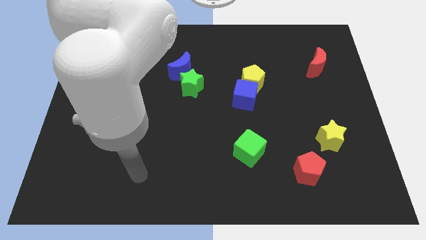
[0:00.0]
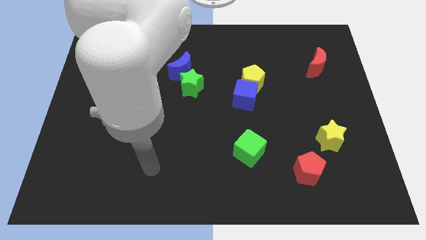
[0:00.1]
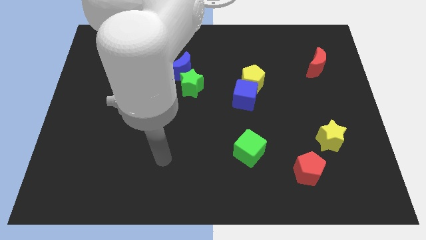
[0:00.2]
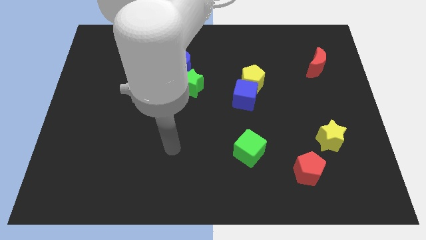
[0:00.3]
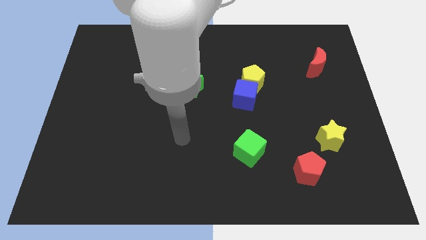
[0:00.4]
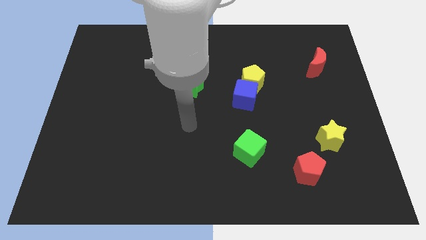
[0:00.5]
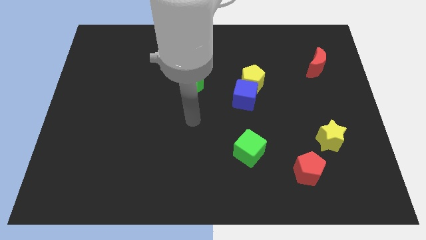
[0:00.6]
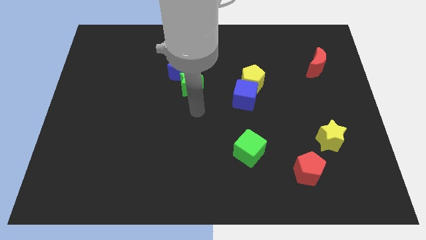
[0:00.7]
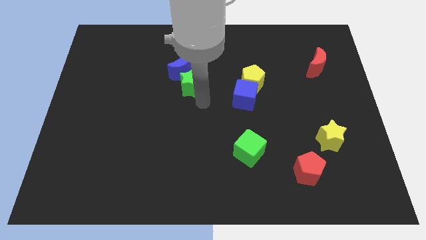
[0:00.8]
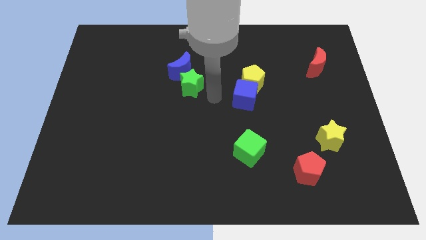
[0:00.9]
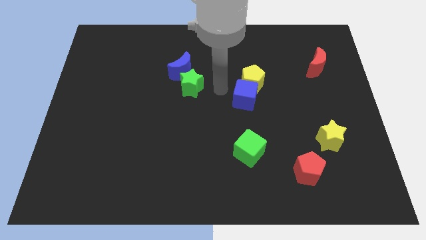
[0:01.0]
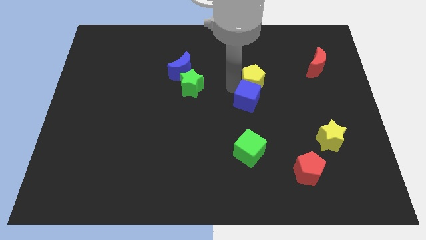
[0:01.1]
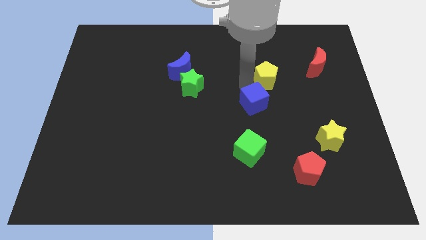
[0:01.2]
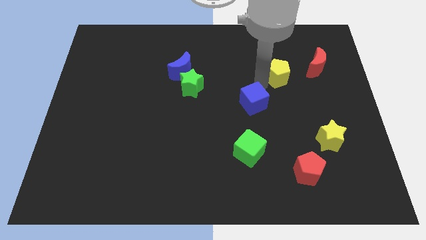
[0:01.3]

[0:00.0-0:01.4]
move the blue cube away from the yellow pentagon

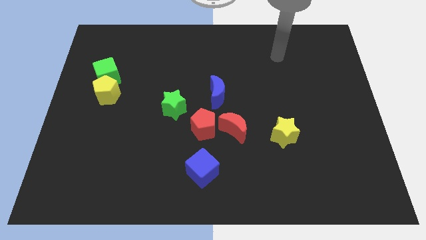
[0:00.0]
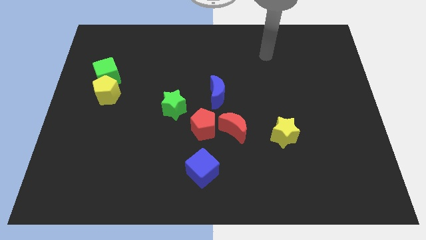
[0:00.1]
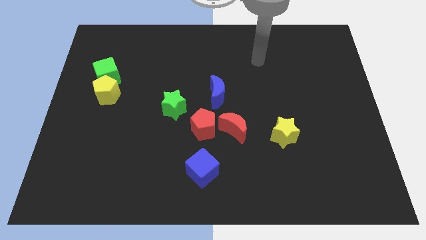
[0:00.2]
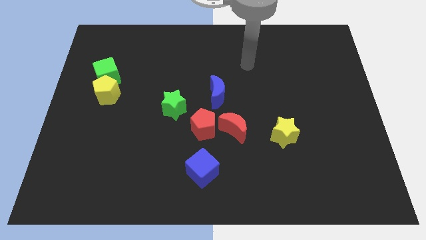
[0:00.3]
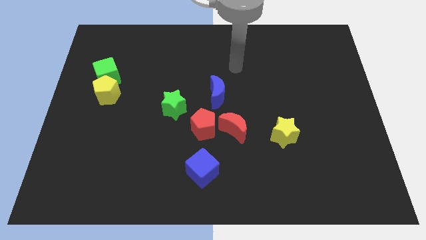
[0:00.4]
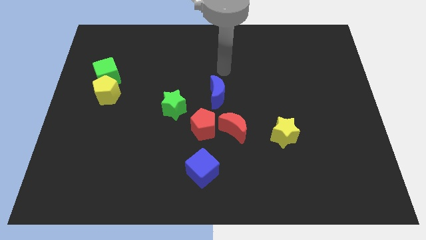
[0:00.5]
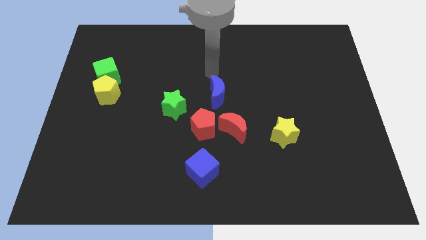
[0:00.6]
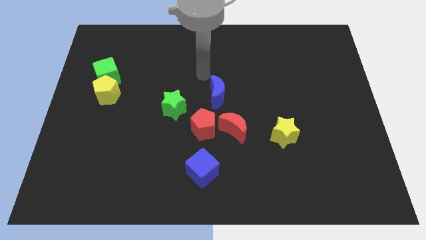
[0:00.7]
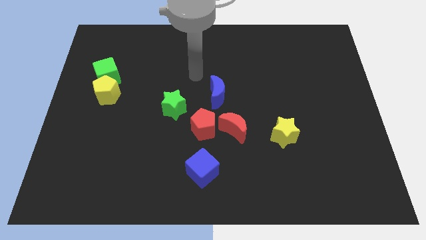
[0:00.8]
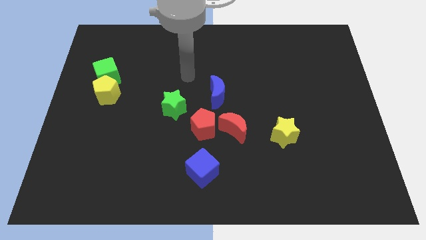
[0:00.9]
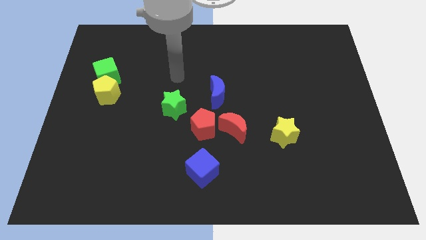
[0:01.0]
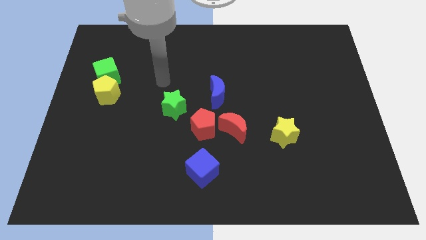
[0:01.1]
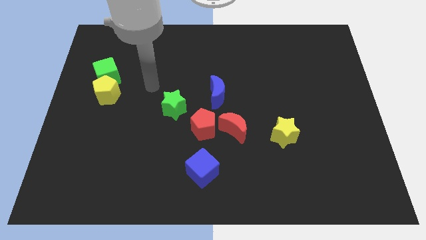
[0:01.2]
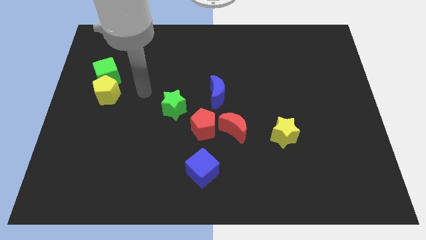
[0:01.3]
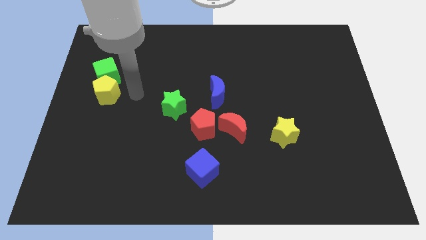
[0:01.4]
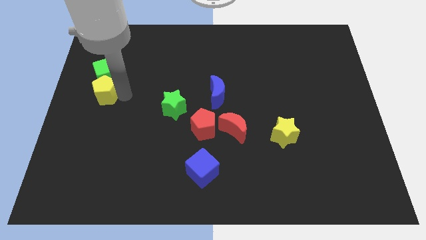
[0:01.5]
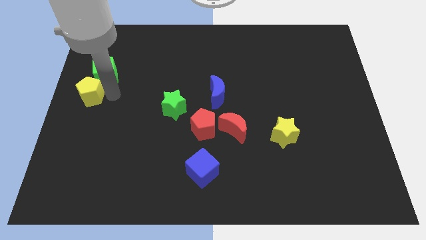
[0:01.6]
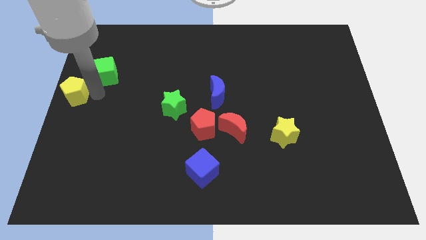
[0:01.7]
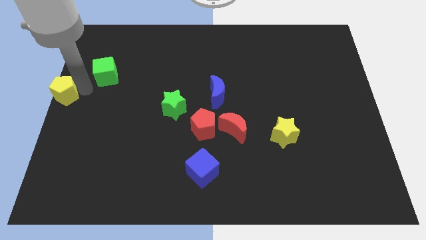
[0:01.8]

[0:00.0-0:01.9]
pull the green cube apart from the yellow pentagon

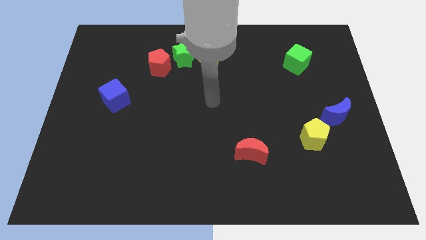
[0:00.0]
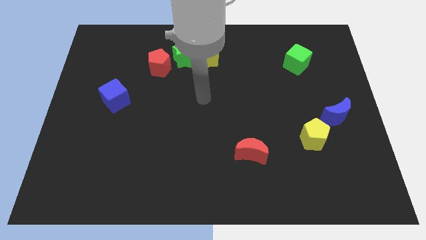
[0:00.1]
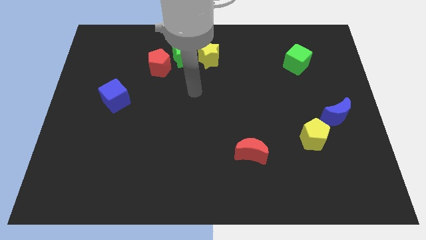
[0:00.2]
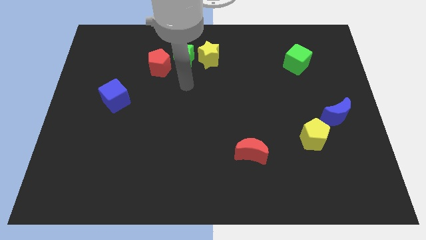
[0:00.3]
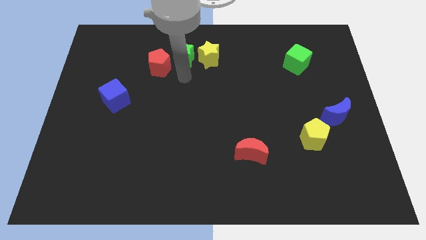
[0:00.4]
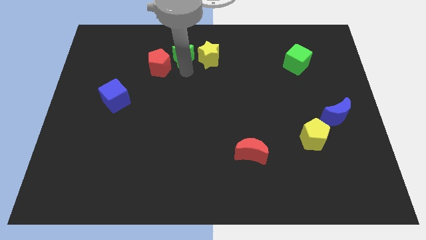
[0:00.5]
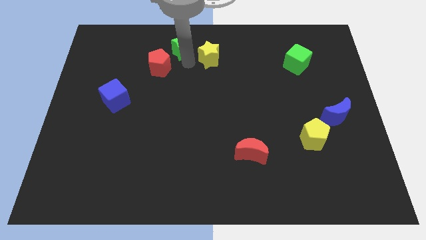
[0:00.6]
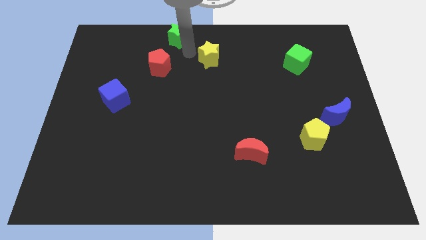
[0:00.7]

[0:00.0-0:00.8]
separate the yellow star from the green star

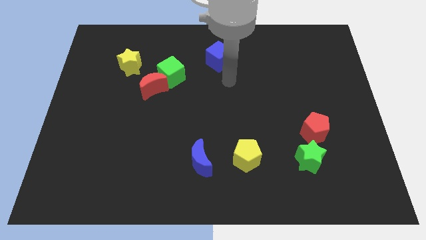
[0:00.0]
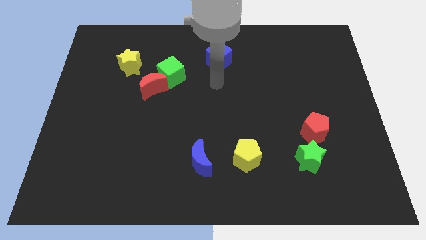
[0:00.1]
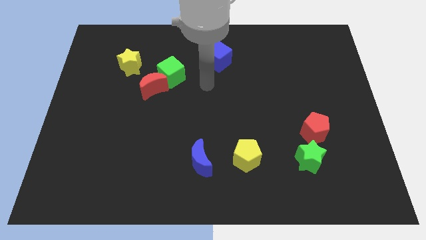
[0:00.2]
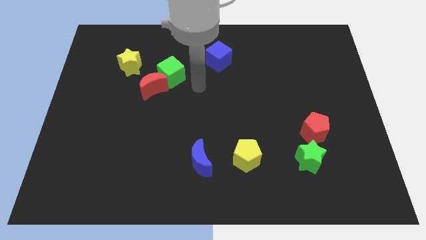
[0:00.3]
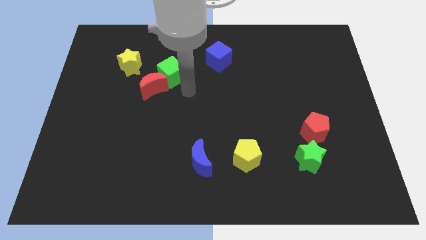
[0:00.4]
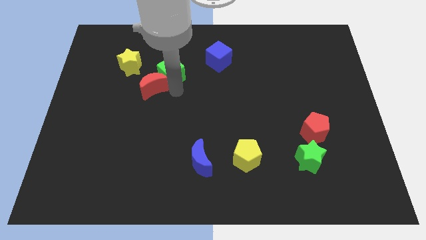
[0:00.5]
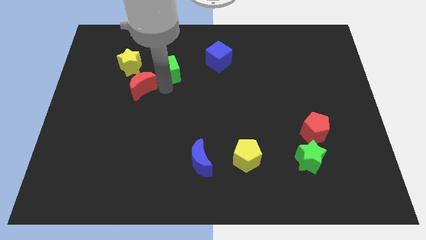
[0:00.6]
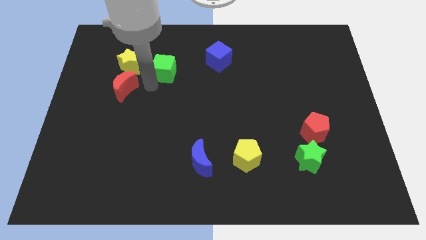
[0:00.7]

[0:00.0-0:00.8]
move the green cube away from the red moon

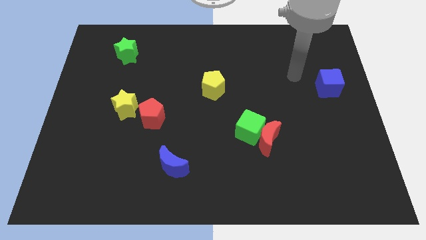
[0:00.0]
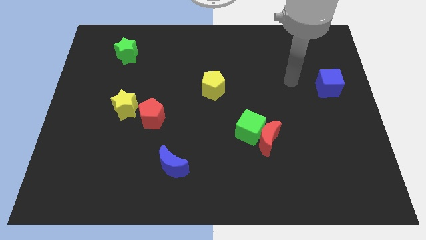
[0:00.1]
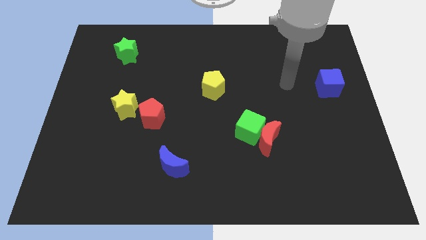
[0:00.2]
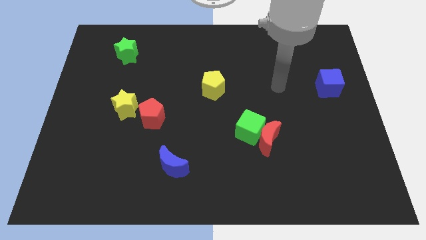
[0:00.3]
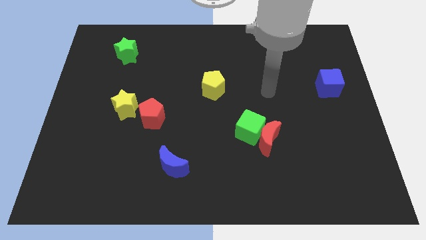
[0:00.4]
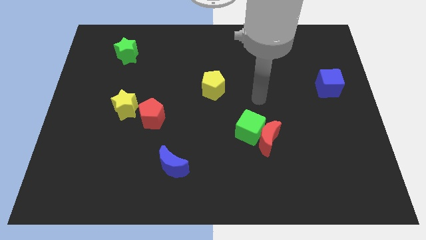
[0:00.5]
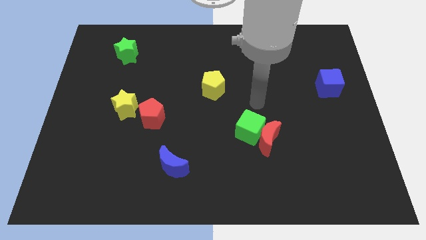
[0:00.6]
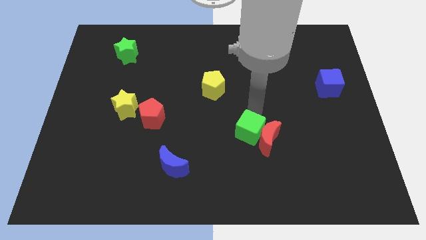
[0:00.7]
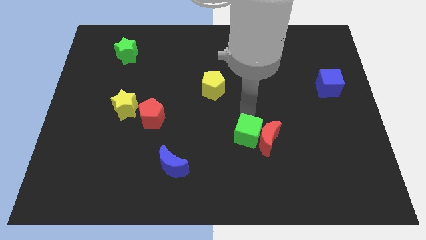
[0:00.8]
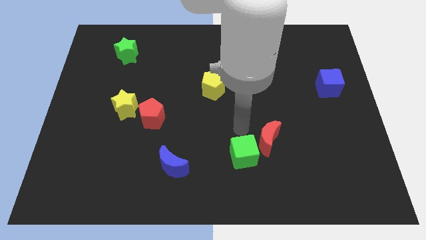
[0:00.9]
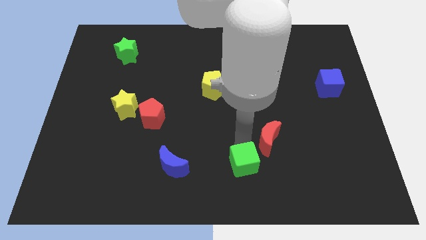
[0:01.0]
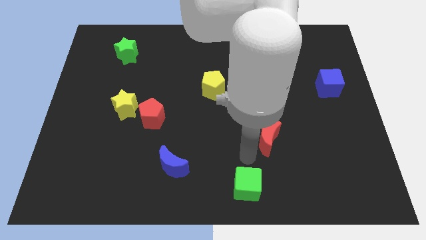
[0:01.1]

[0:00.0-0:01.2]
pull the red moon apart from the green cube

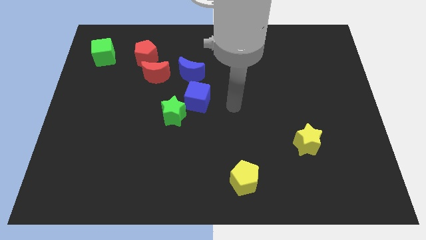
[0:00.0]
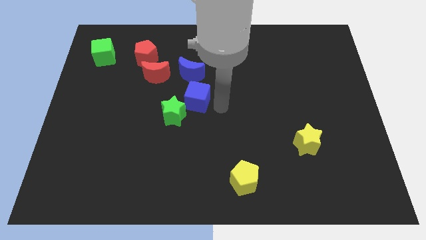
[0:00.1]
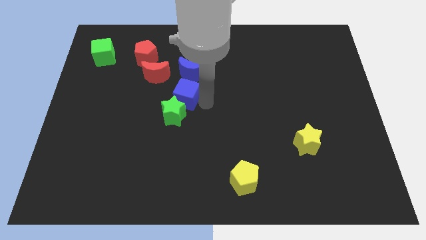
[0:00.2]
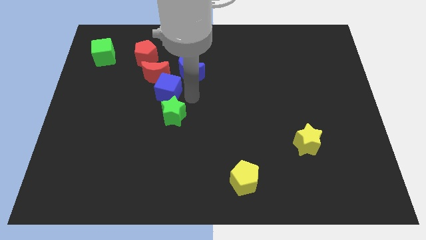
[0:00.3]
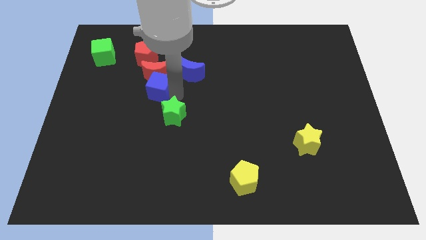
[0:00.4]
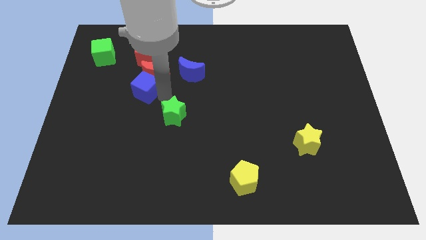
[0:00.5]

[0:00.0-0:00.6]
separate the green star from the blue cube

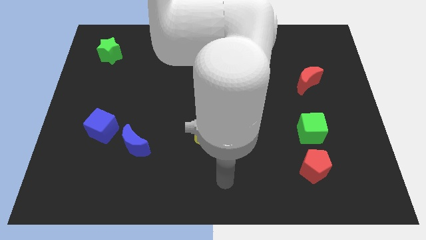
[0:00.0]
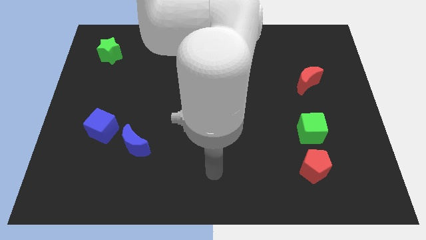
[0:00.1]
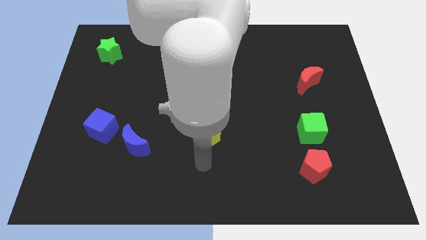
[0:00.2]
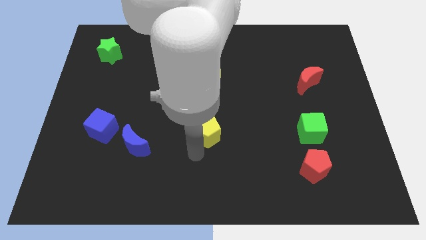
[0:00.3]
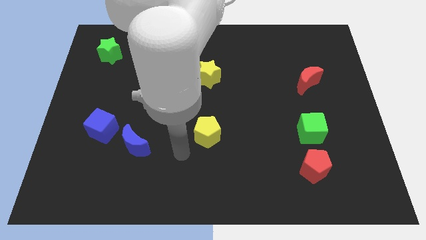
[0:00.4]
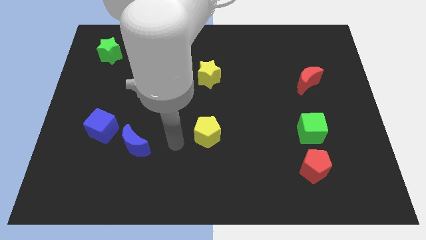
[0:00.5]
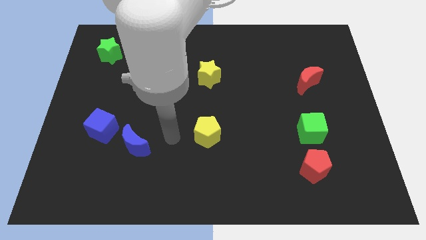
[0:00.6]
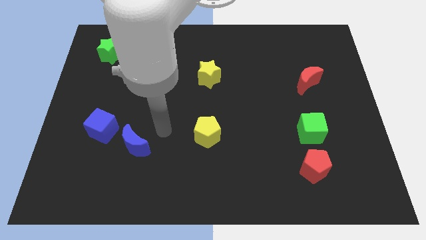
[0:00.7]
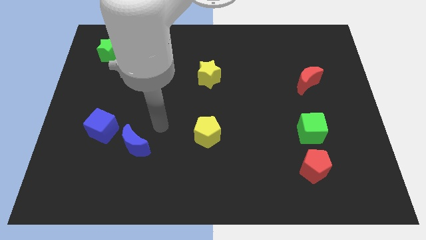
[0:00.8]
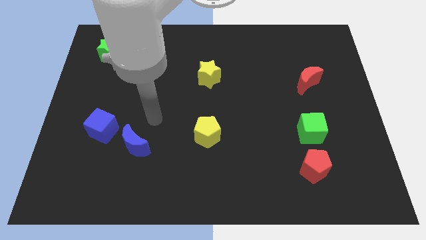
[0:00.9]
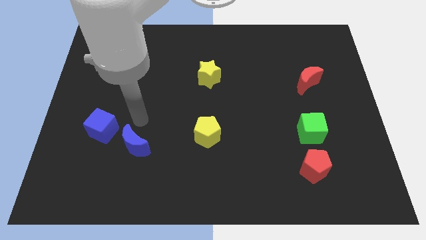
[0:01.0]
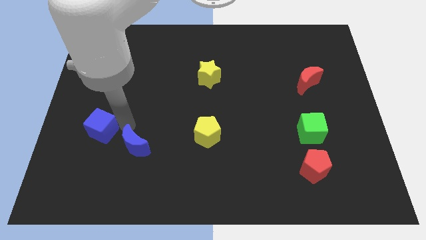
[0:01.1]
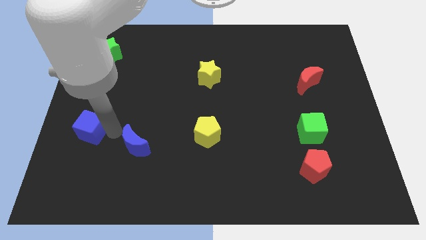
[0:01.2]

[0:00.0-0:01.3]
separate the blue moon from the blue cube

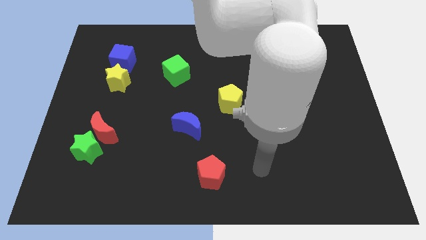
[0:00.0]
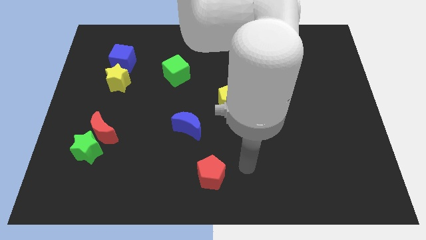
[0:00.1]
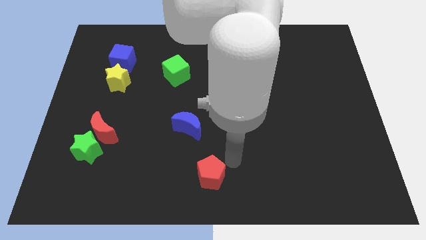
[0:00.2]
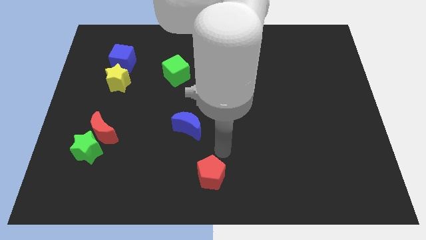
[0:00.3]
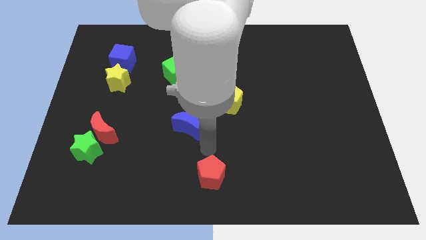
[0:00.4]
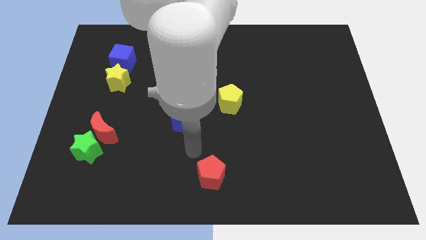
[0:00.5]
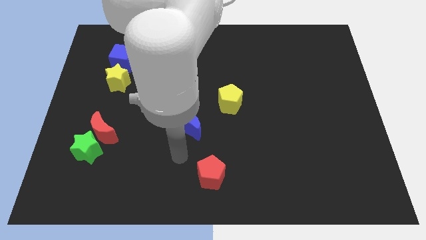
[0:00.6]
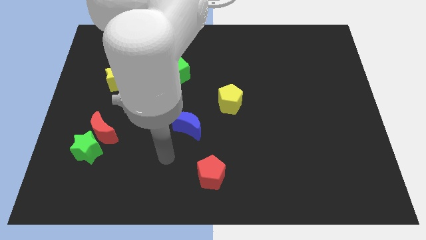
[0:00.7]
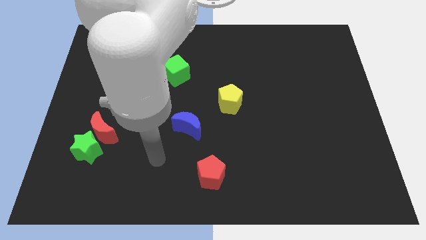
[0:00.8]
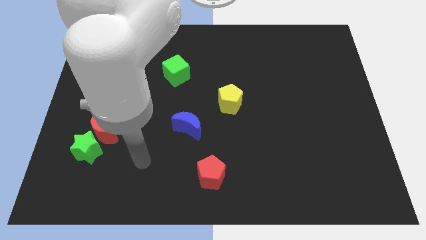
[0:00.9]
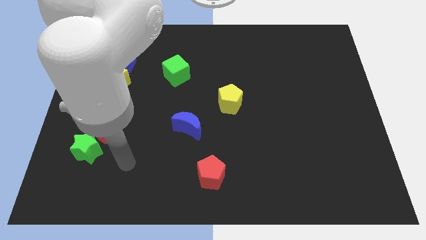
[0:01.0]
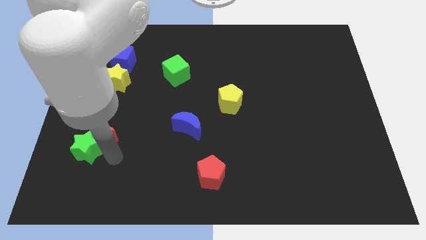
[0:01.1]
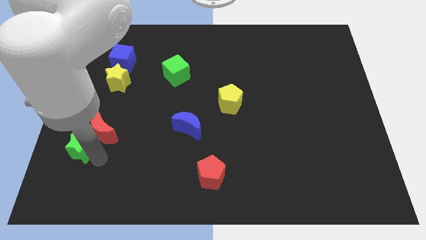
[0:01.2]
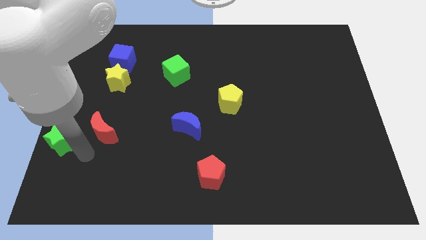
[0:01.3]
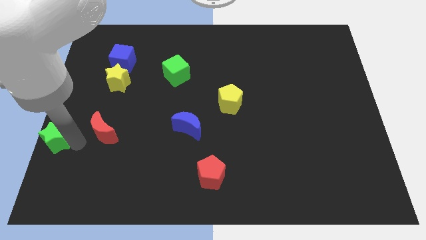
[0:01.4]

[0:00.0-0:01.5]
pull the red moon apart from the green star

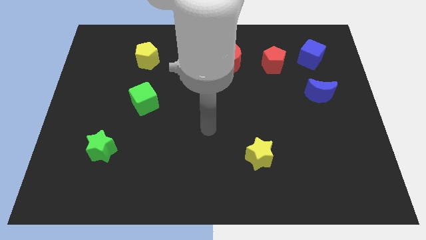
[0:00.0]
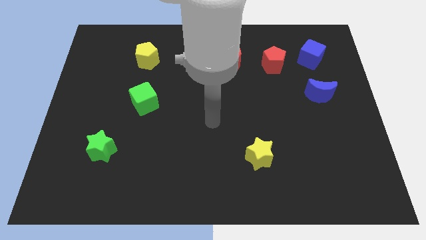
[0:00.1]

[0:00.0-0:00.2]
pull the red moon apart from the red pentagon
